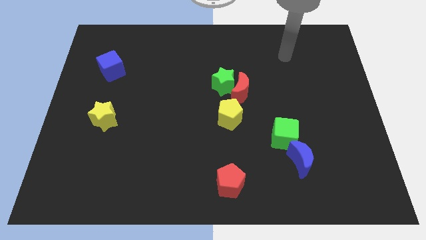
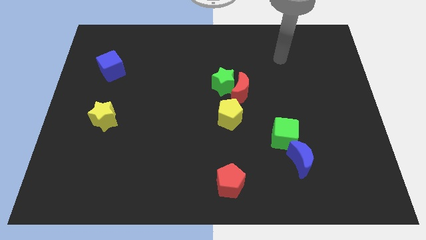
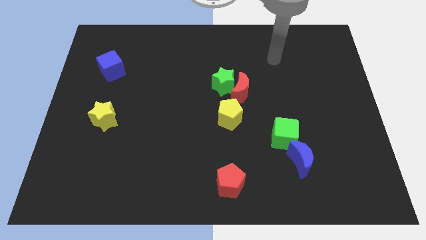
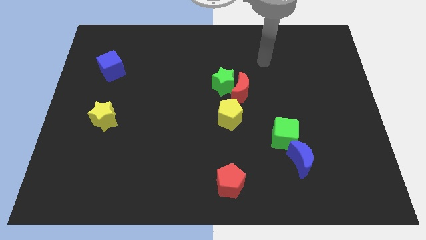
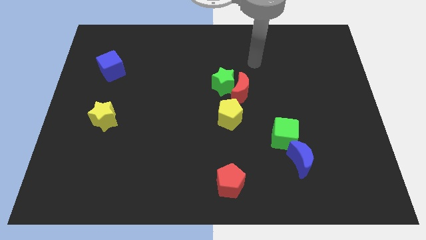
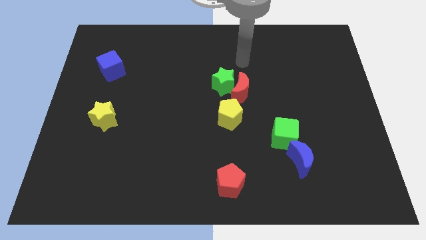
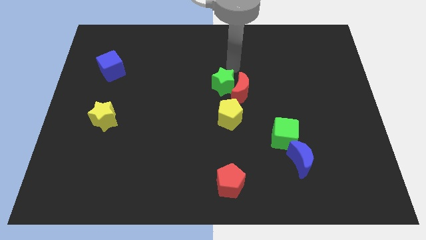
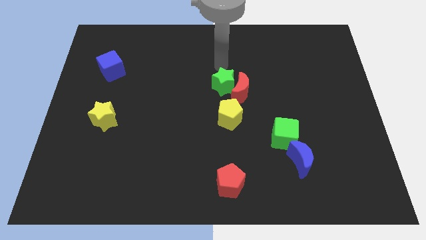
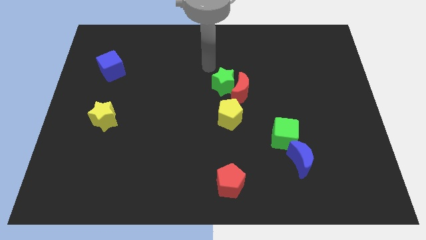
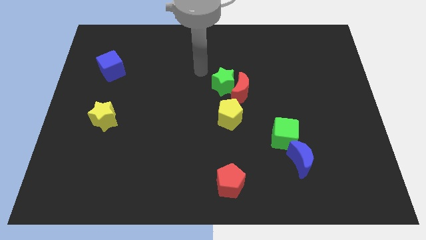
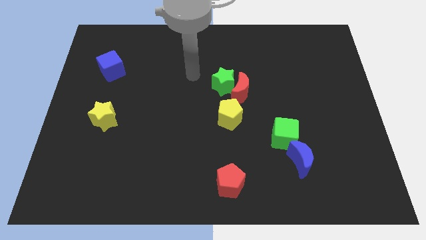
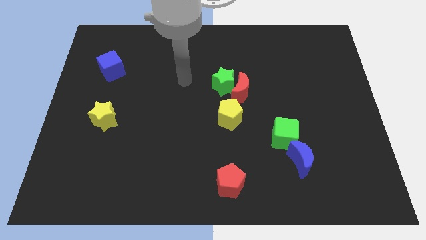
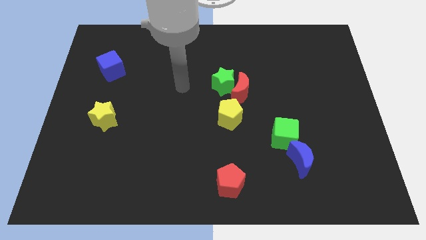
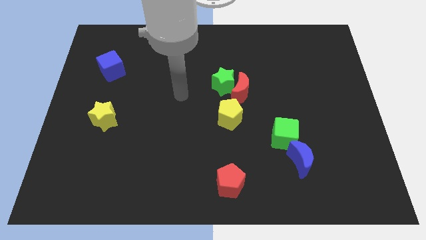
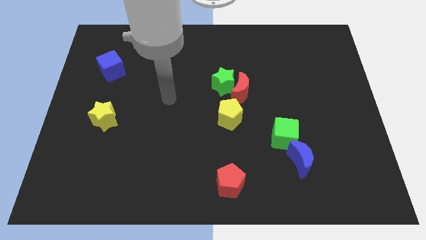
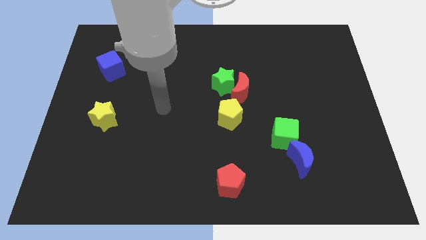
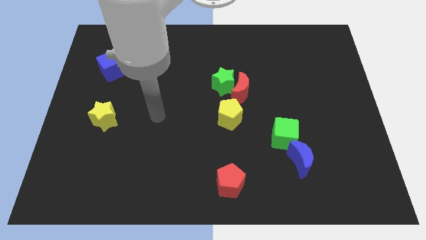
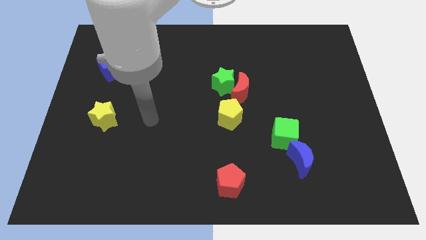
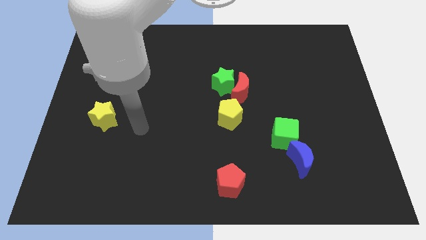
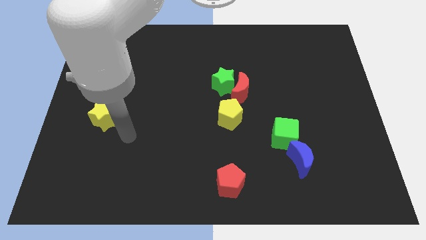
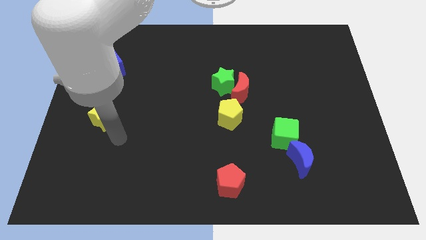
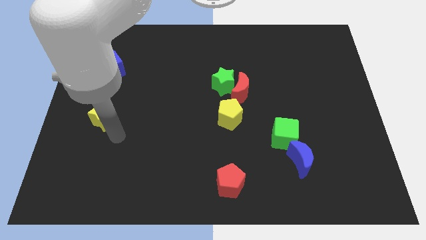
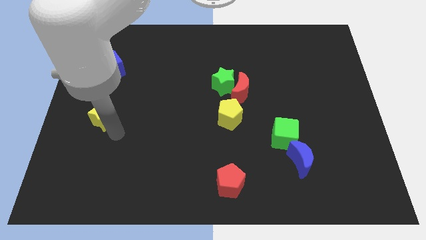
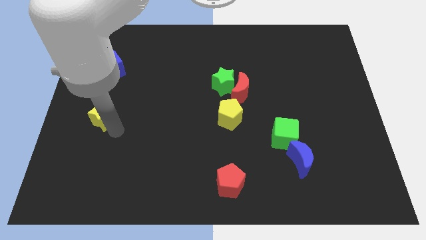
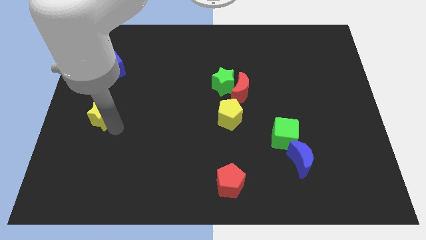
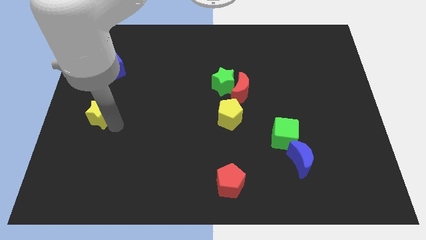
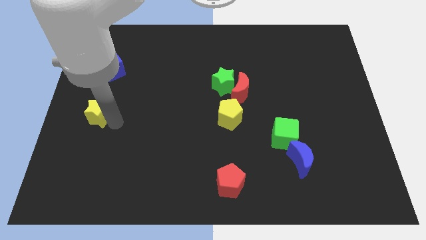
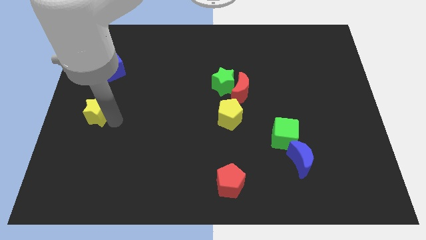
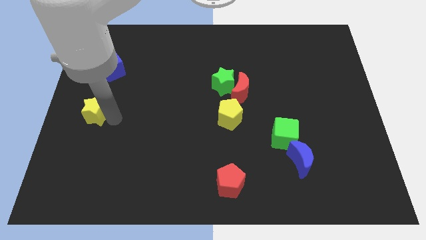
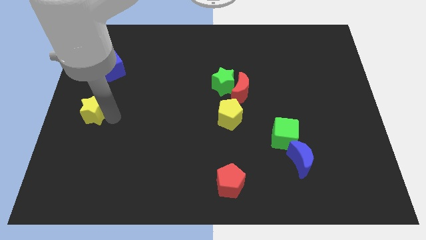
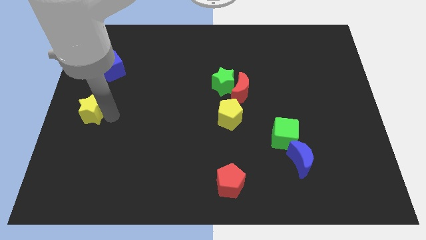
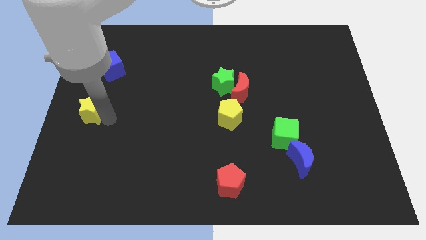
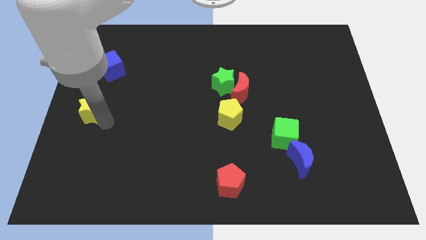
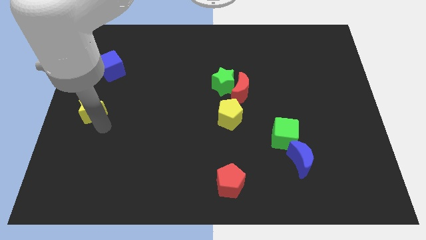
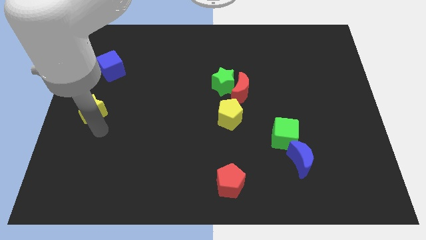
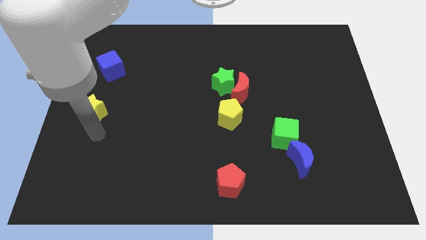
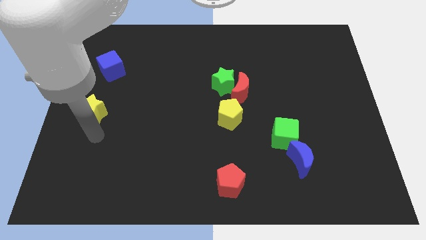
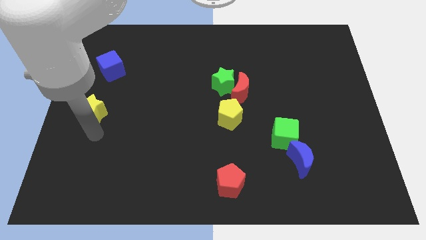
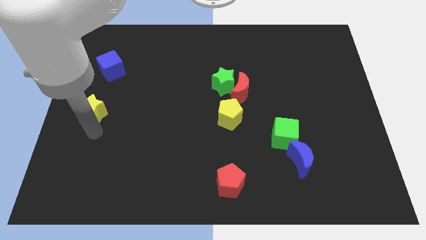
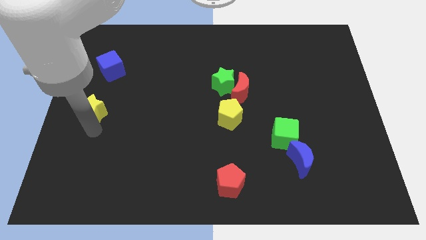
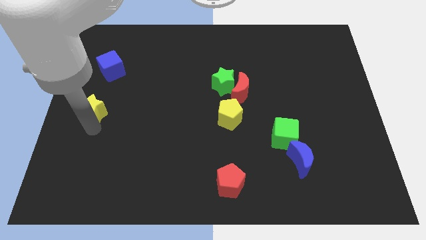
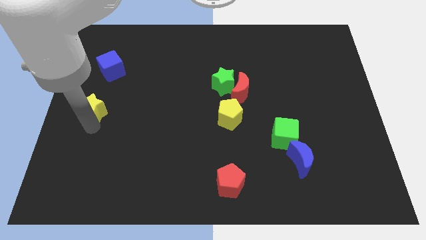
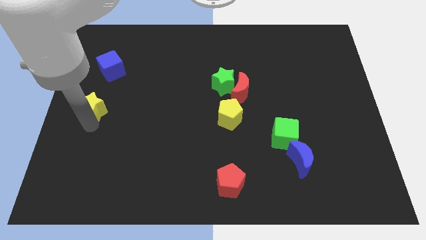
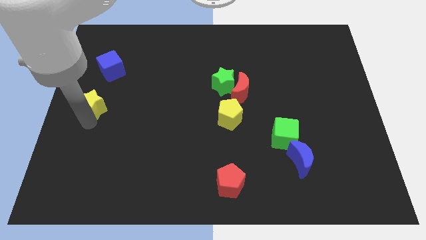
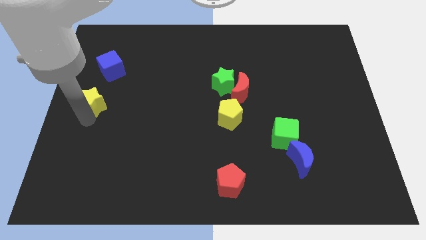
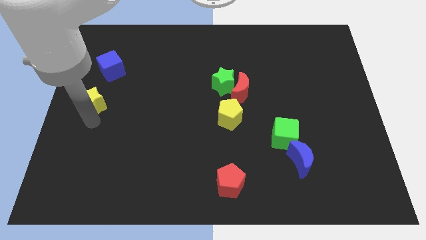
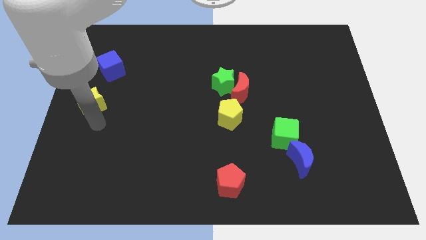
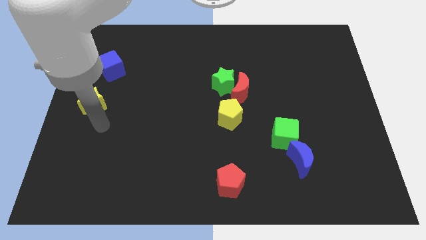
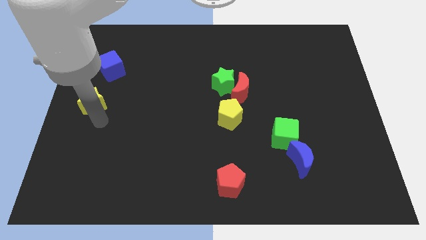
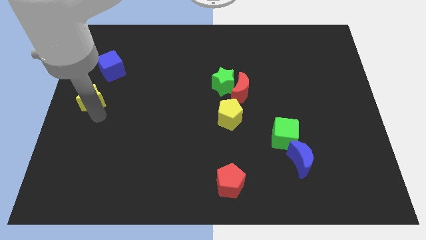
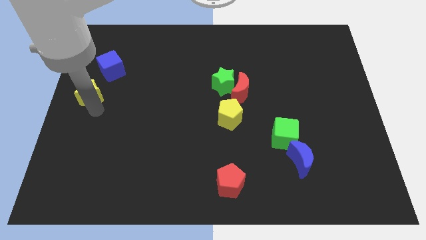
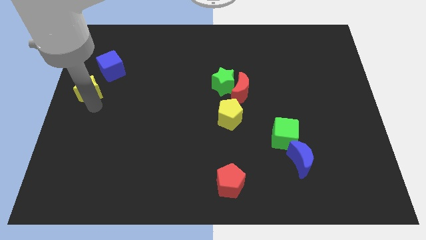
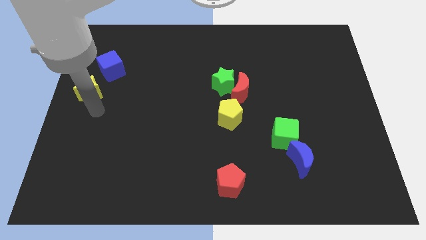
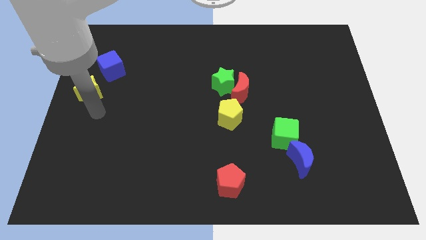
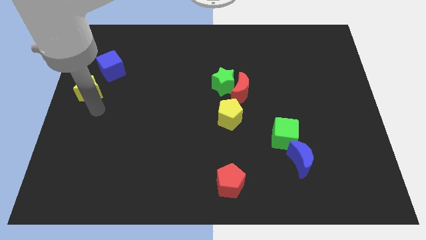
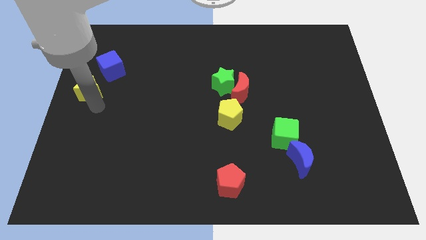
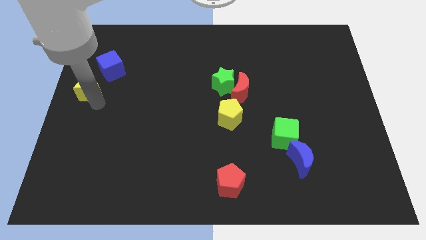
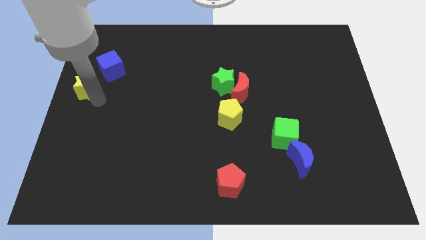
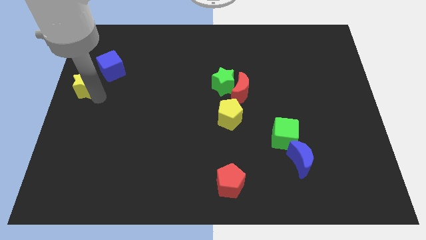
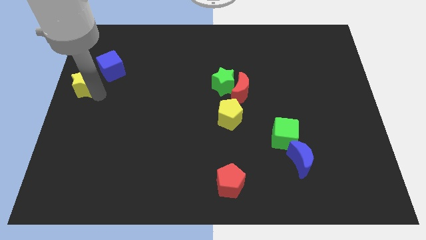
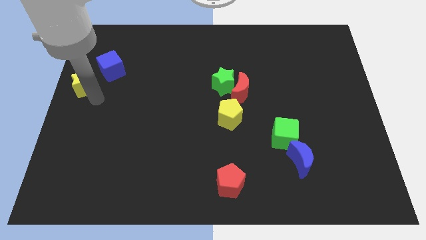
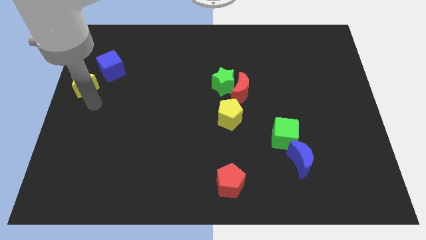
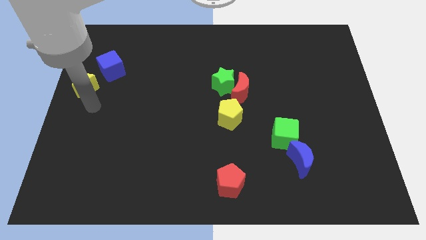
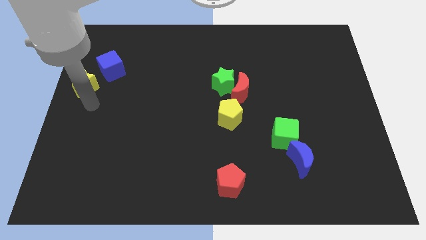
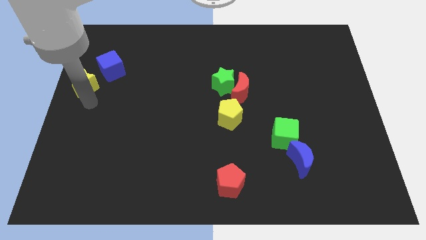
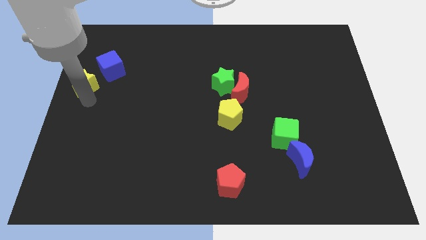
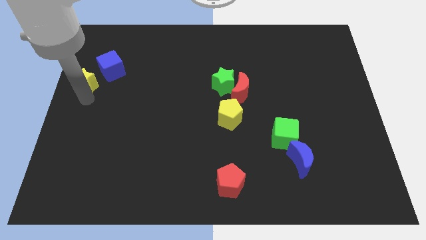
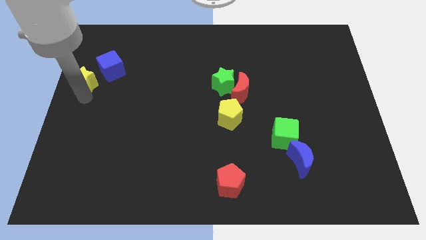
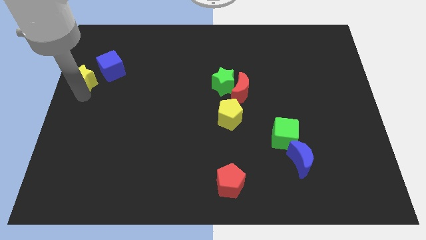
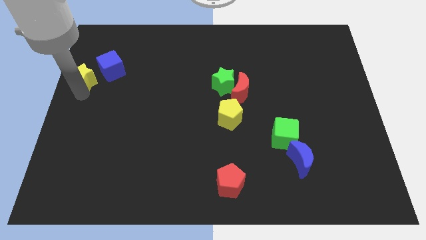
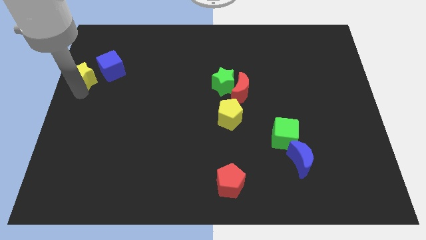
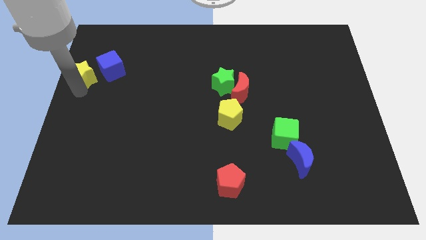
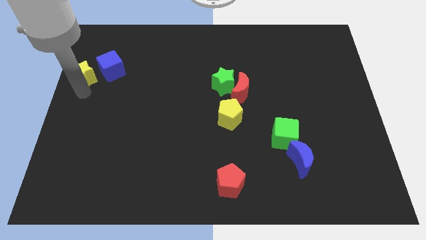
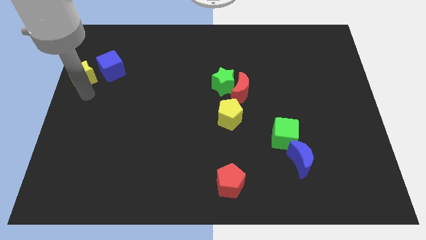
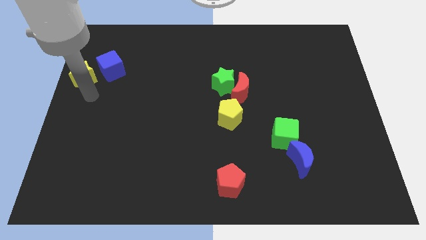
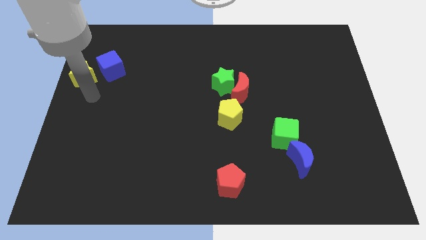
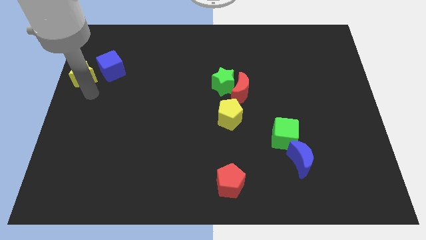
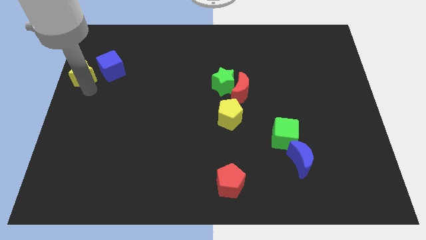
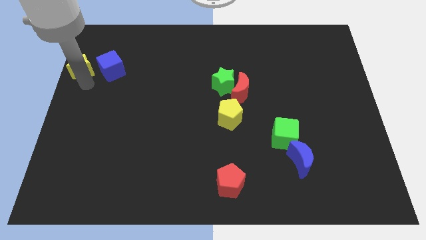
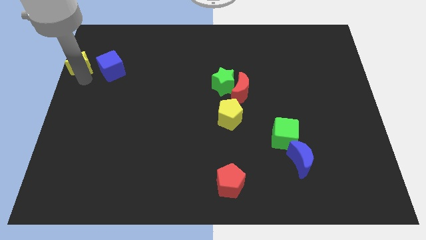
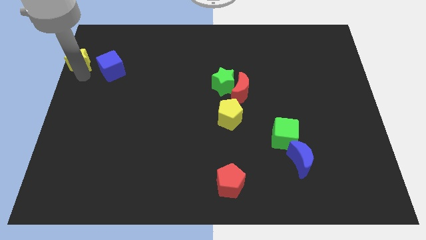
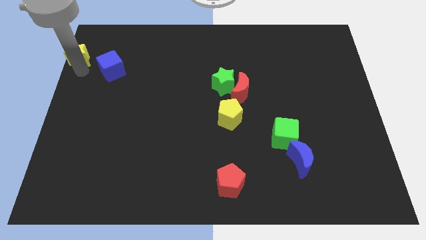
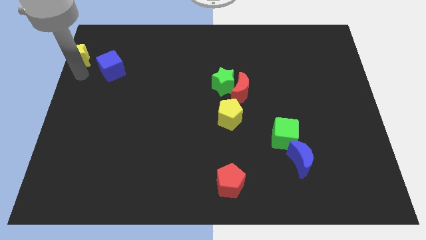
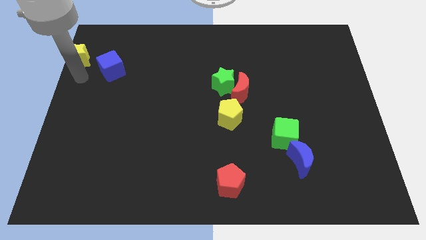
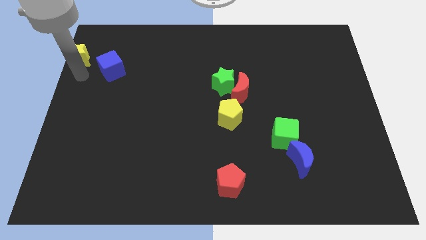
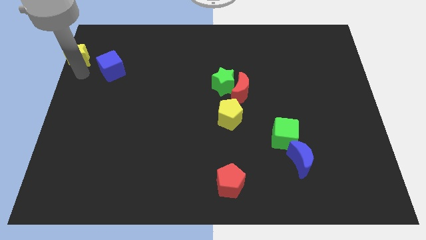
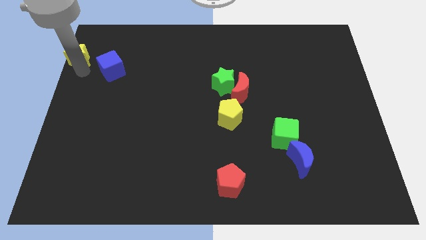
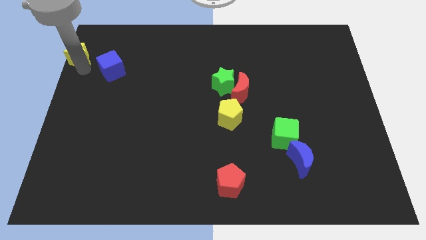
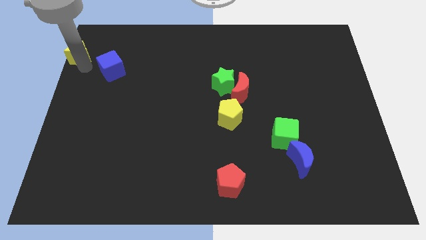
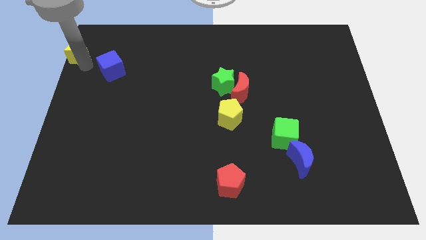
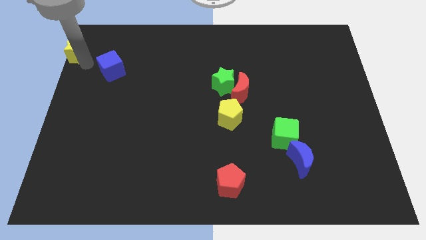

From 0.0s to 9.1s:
slide the yellow star to the top left corner
